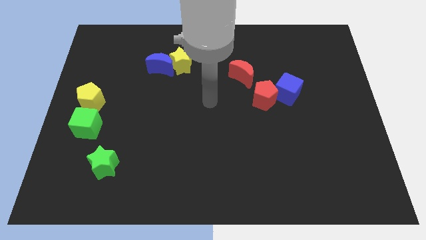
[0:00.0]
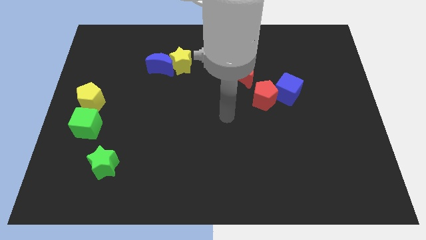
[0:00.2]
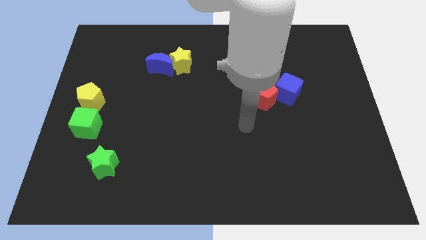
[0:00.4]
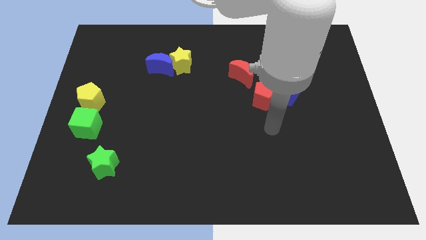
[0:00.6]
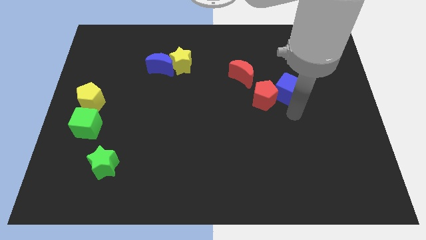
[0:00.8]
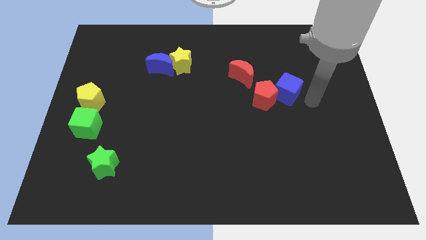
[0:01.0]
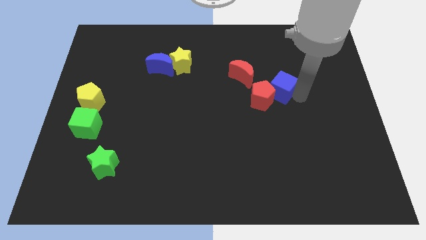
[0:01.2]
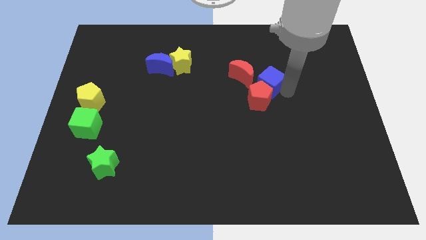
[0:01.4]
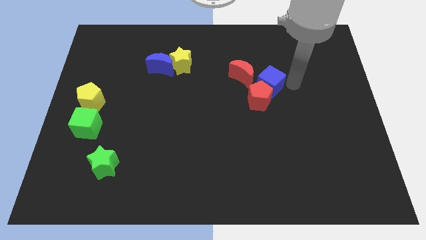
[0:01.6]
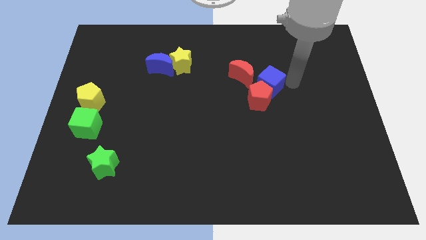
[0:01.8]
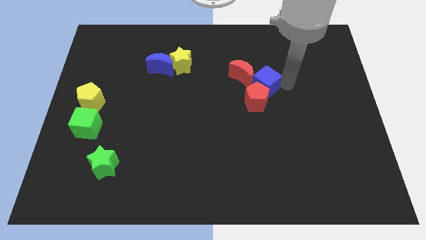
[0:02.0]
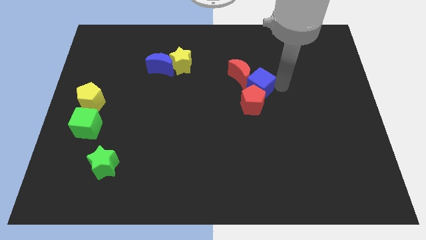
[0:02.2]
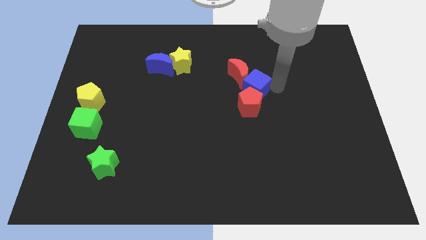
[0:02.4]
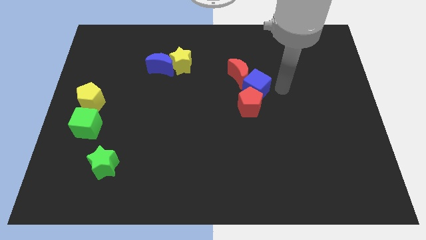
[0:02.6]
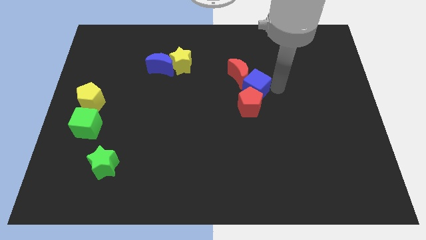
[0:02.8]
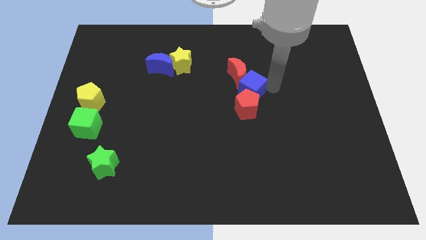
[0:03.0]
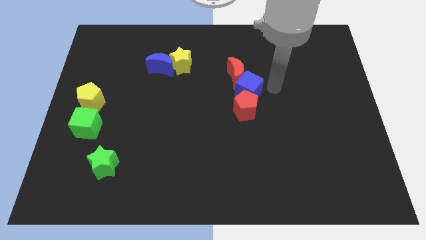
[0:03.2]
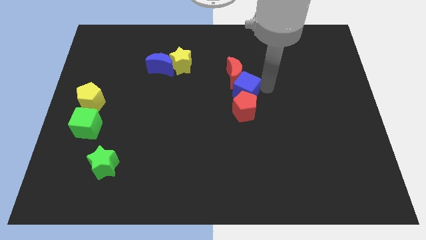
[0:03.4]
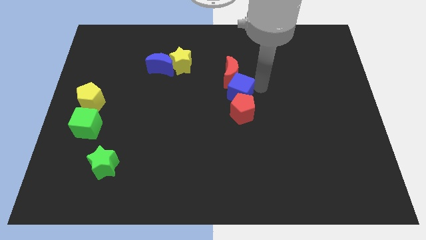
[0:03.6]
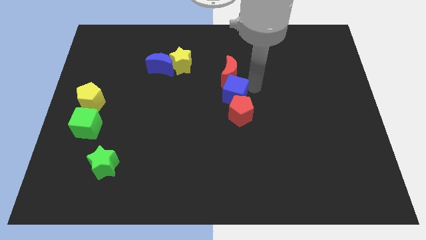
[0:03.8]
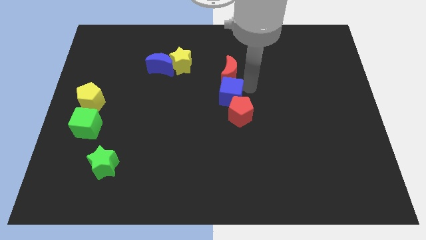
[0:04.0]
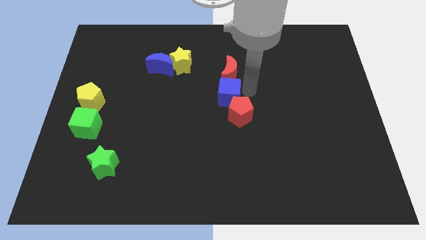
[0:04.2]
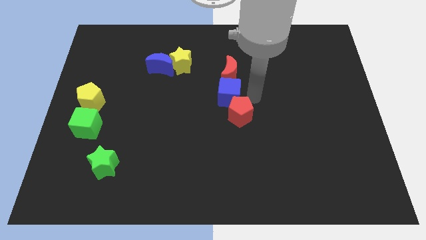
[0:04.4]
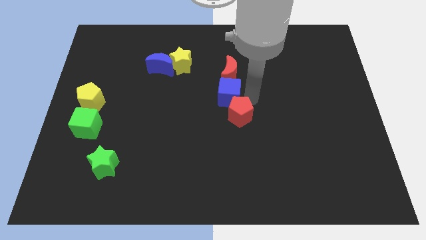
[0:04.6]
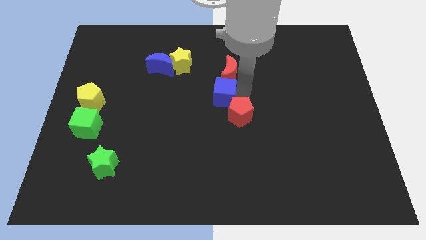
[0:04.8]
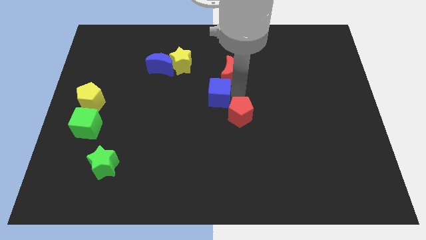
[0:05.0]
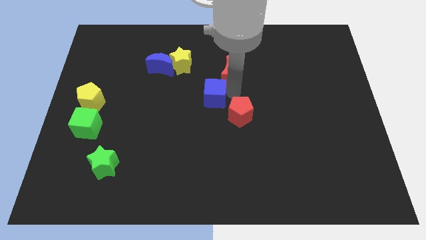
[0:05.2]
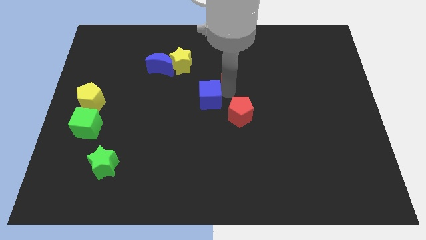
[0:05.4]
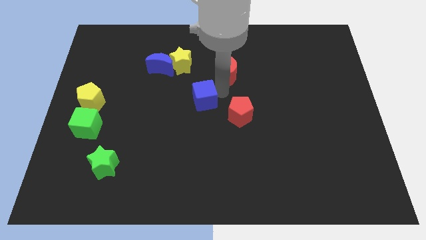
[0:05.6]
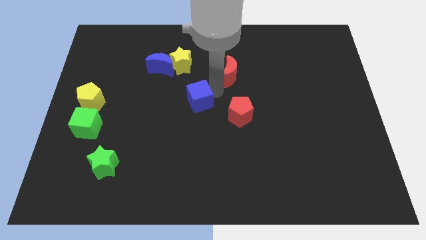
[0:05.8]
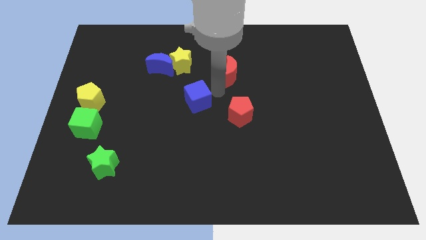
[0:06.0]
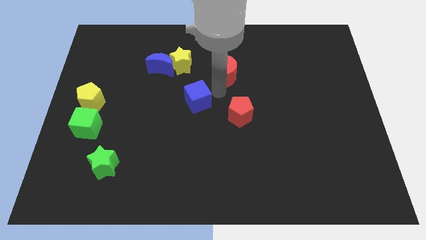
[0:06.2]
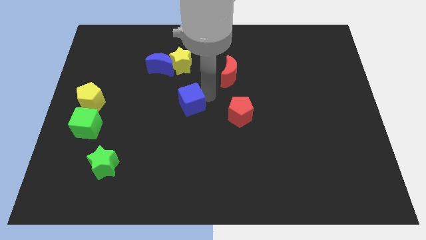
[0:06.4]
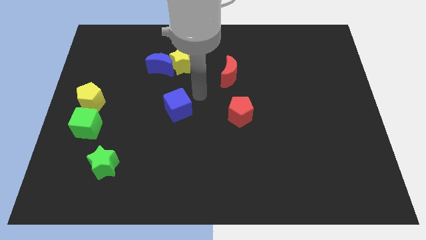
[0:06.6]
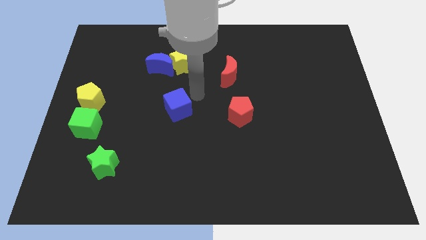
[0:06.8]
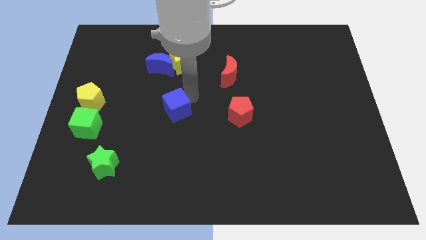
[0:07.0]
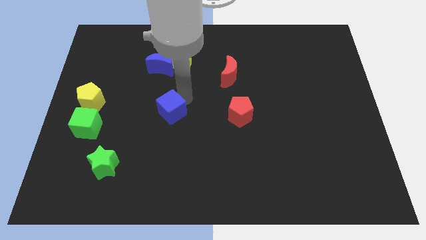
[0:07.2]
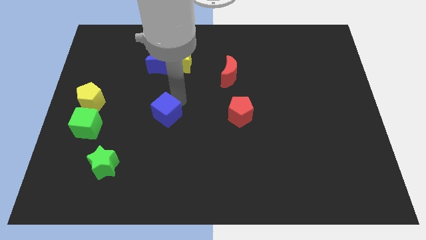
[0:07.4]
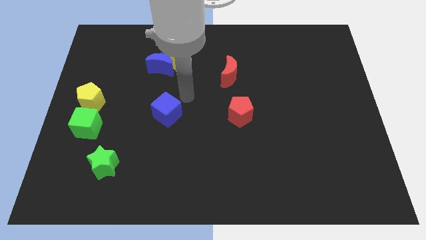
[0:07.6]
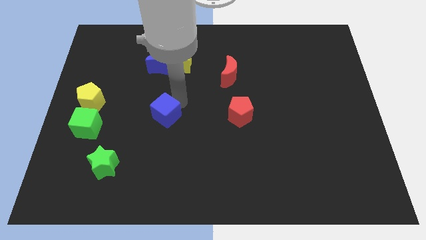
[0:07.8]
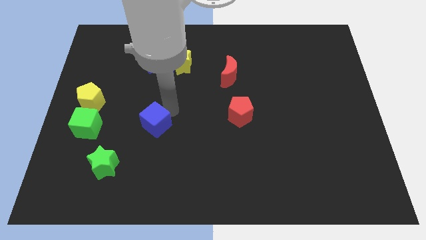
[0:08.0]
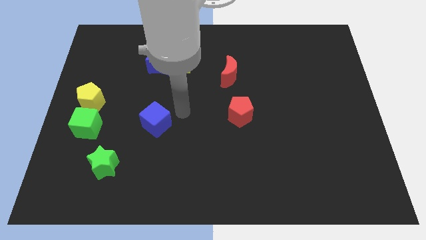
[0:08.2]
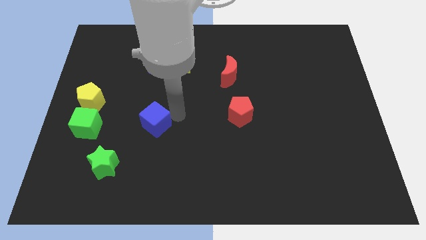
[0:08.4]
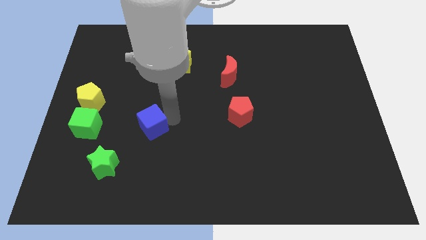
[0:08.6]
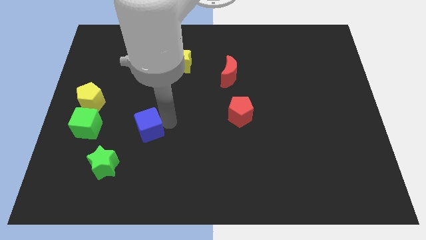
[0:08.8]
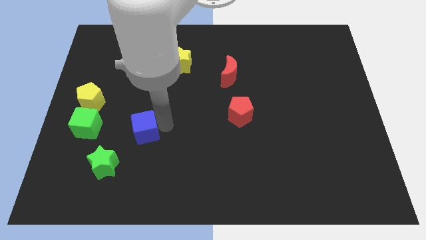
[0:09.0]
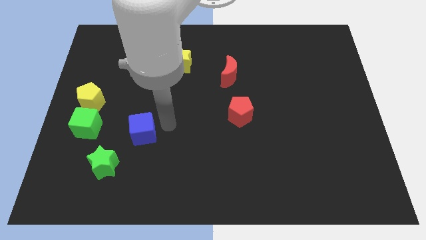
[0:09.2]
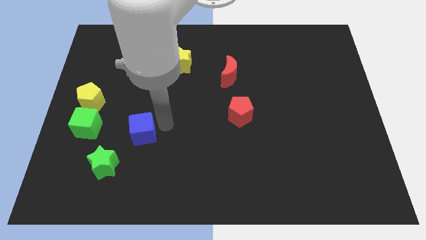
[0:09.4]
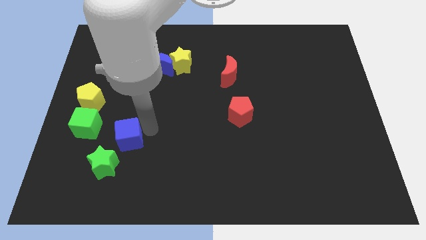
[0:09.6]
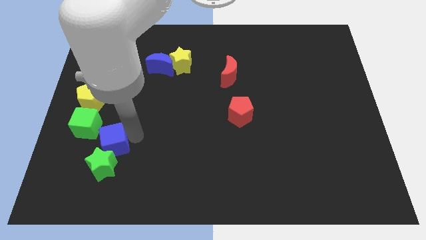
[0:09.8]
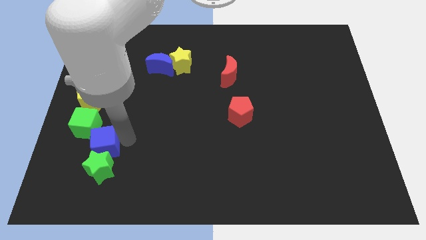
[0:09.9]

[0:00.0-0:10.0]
slide the blue cube to the top left of the green star

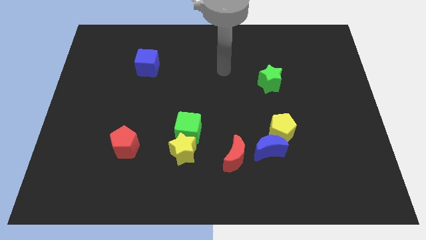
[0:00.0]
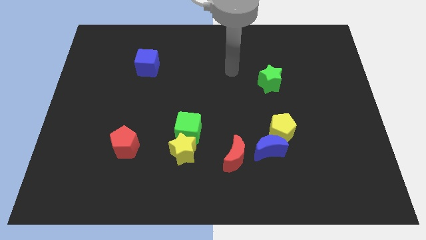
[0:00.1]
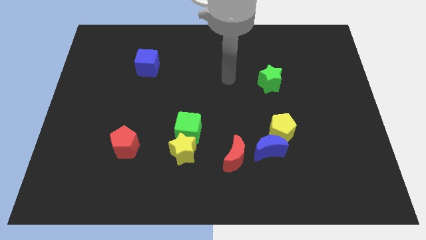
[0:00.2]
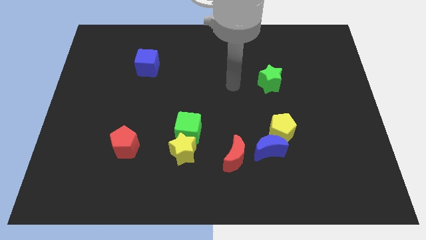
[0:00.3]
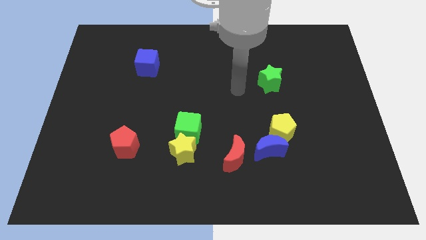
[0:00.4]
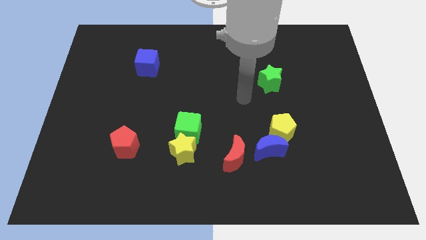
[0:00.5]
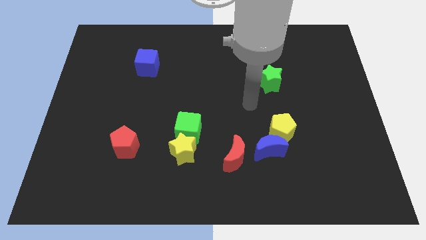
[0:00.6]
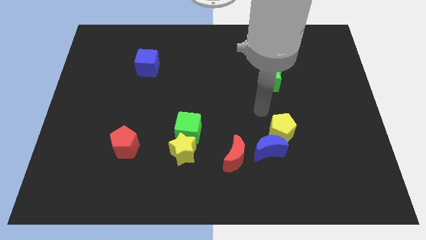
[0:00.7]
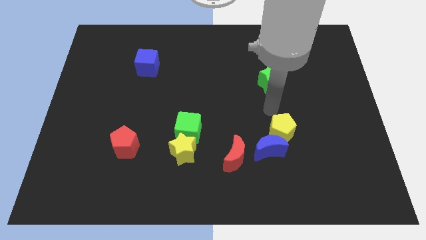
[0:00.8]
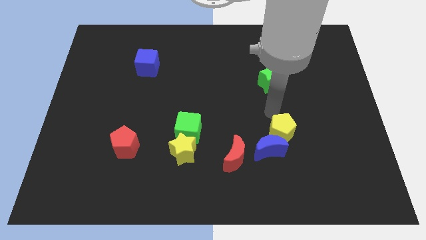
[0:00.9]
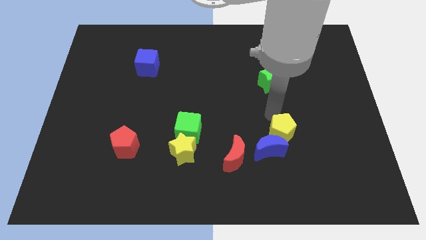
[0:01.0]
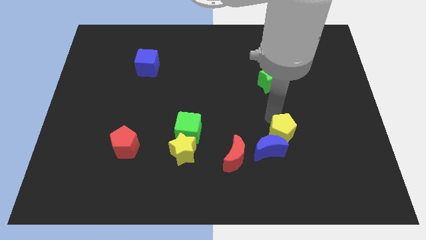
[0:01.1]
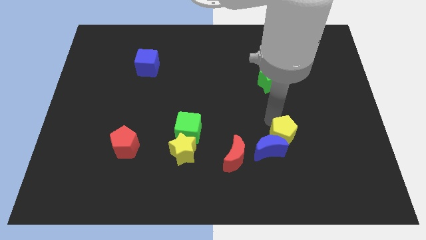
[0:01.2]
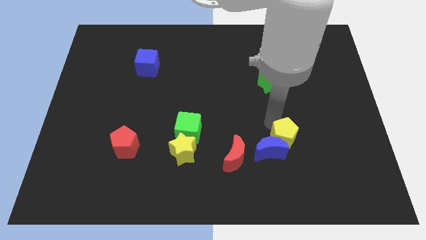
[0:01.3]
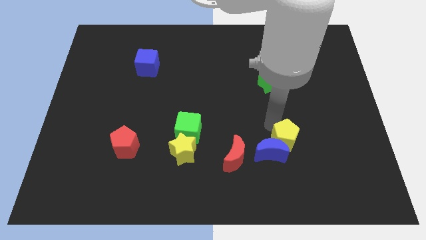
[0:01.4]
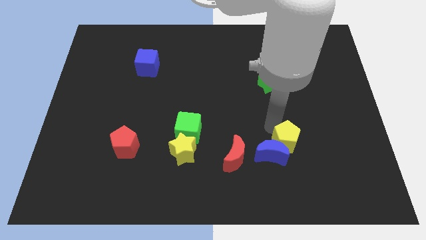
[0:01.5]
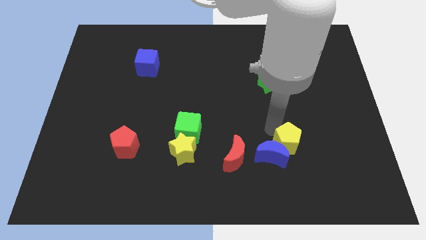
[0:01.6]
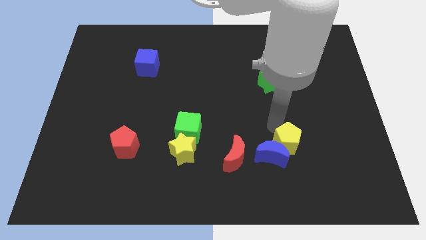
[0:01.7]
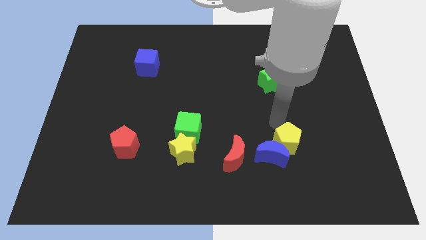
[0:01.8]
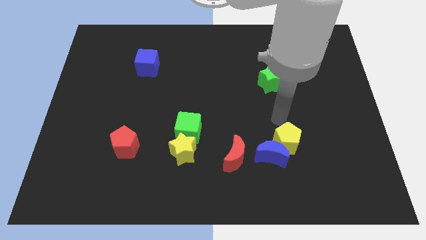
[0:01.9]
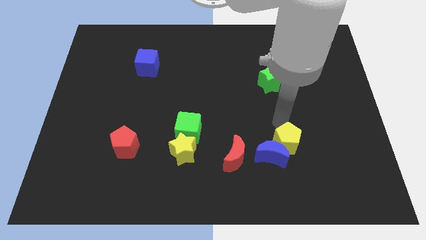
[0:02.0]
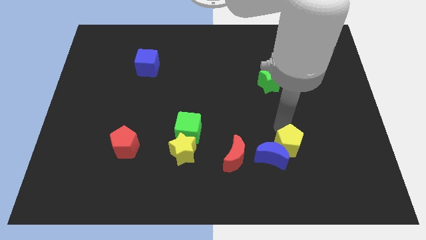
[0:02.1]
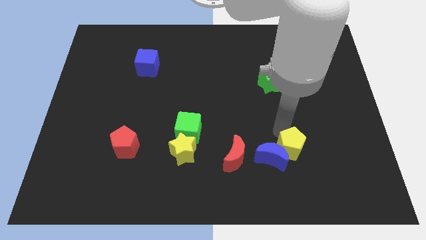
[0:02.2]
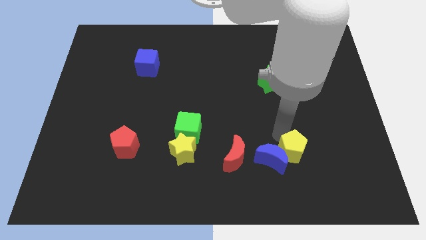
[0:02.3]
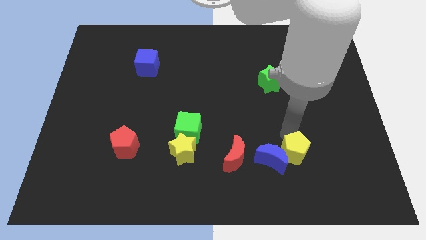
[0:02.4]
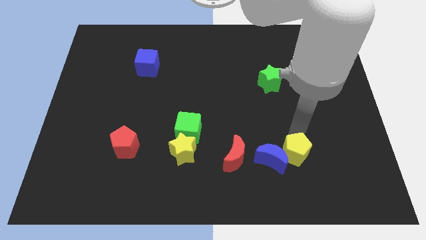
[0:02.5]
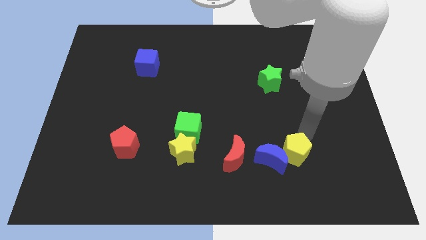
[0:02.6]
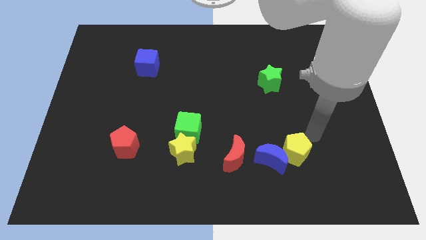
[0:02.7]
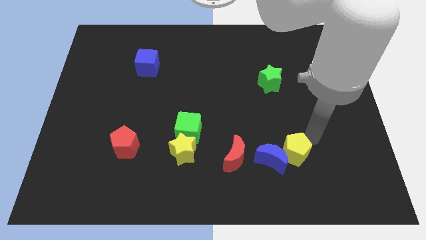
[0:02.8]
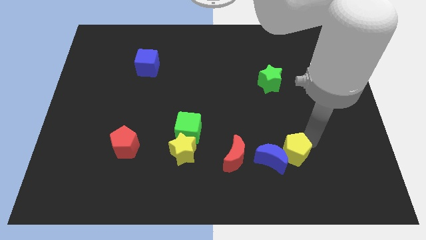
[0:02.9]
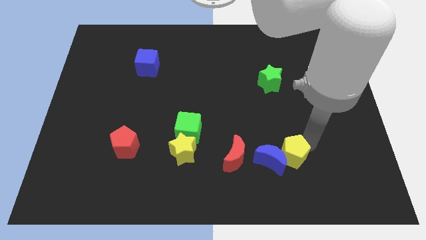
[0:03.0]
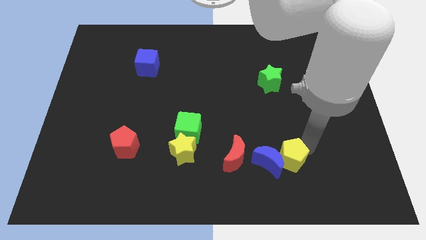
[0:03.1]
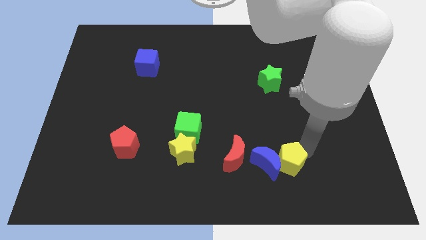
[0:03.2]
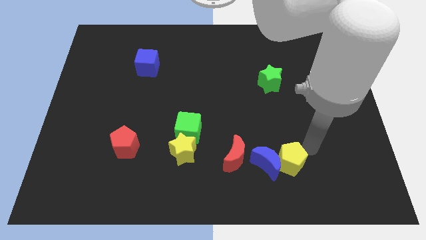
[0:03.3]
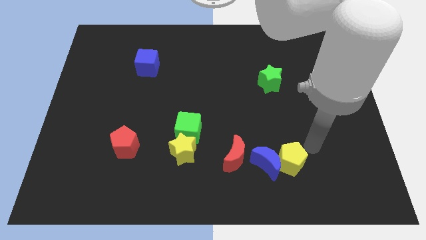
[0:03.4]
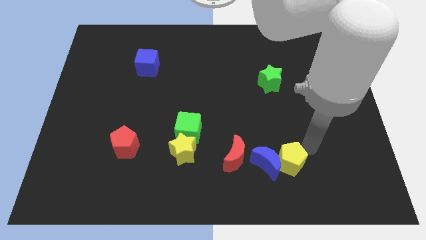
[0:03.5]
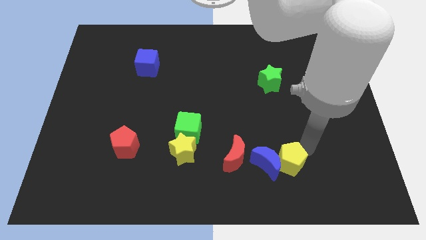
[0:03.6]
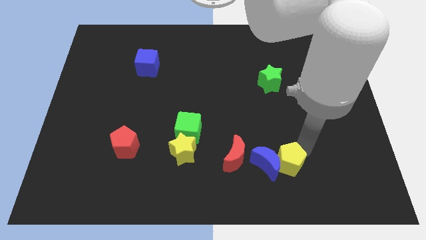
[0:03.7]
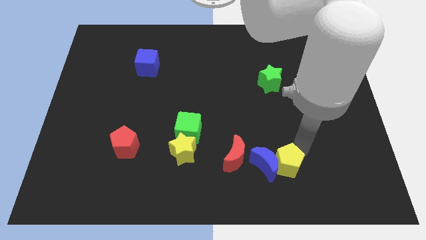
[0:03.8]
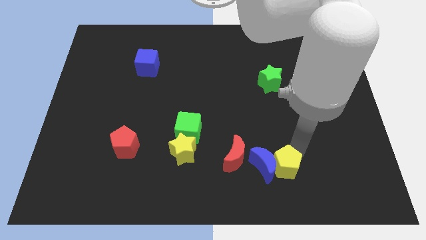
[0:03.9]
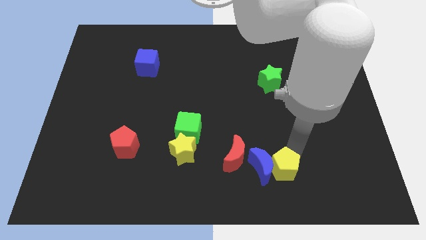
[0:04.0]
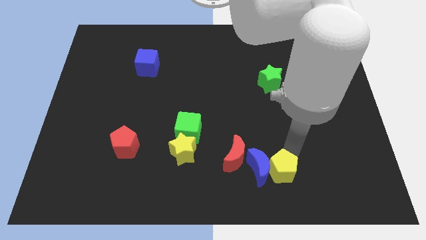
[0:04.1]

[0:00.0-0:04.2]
put the yellow pentagon diagonally down and to the right of the red moon
